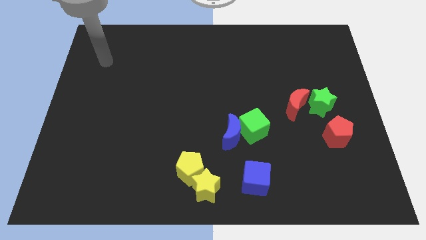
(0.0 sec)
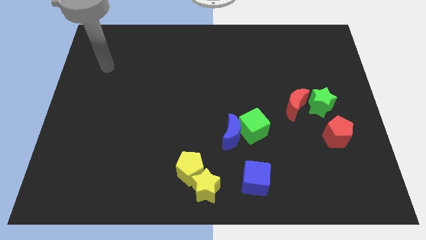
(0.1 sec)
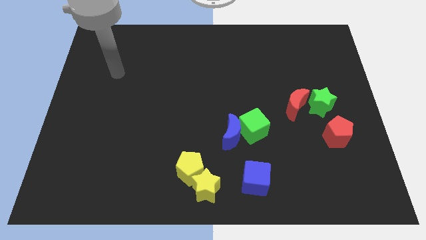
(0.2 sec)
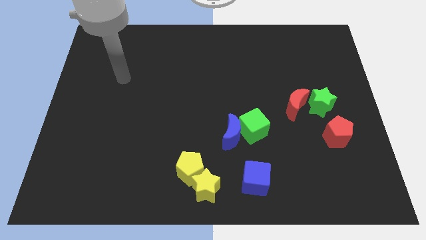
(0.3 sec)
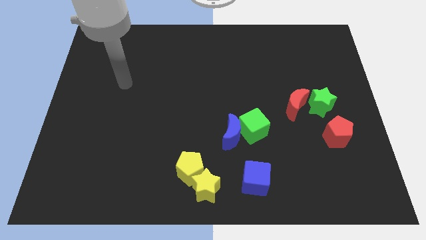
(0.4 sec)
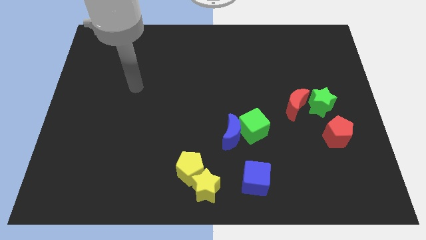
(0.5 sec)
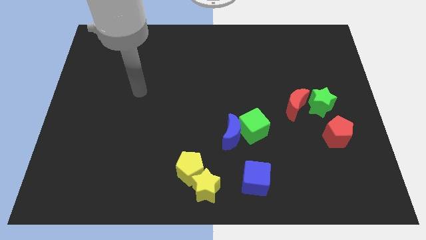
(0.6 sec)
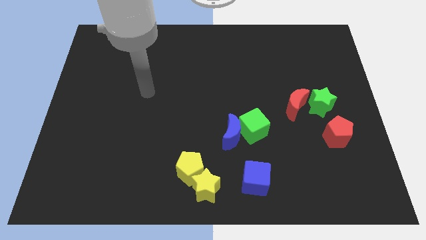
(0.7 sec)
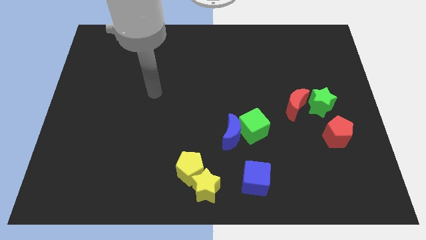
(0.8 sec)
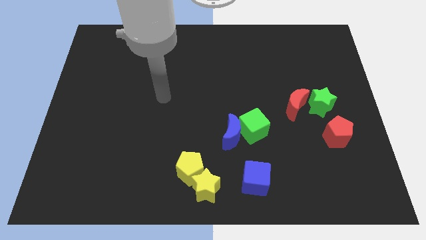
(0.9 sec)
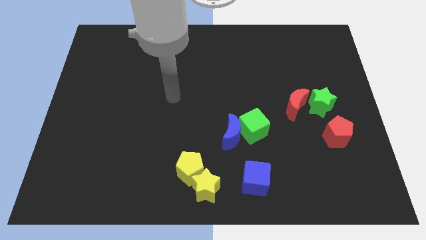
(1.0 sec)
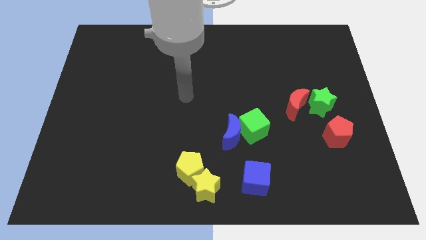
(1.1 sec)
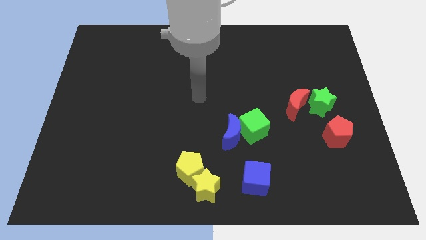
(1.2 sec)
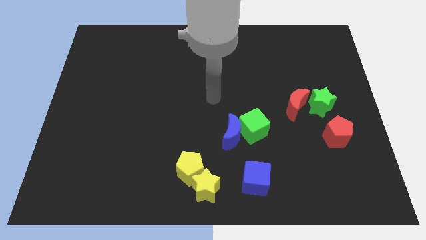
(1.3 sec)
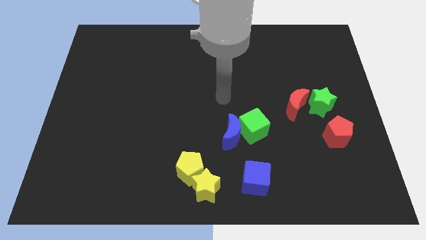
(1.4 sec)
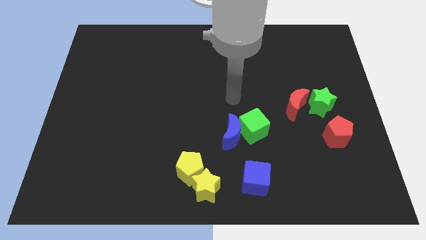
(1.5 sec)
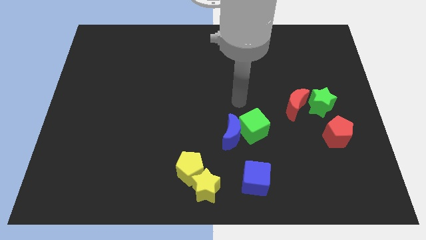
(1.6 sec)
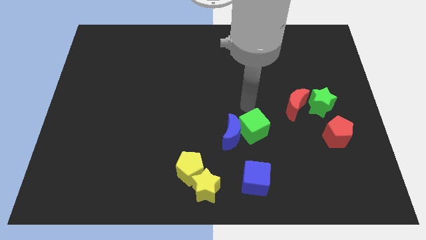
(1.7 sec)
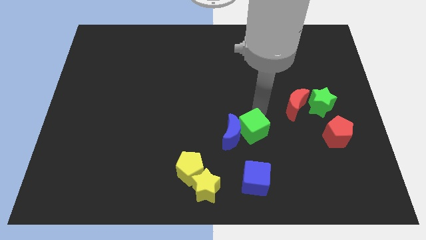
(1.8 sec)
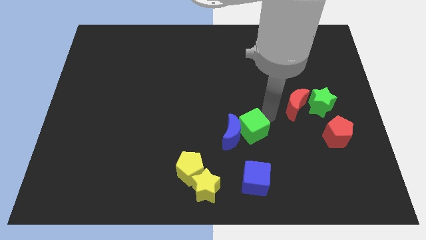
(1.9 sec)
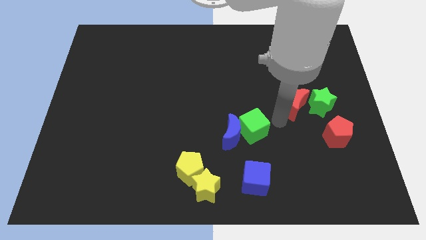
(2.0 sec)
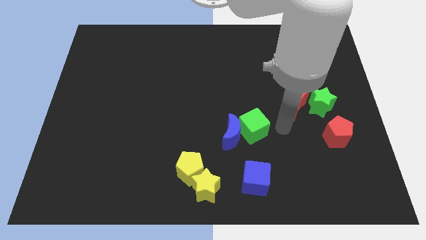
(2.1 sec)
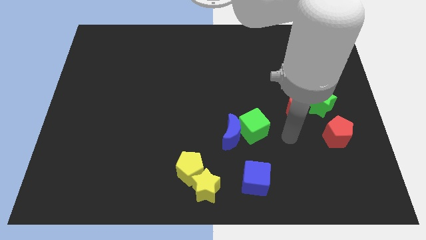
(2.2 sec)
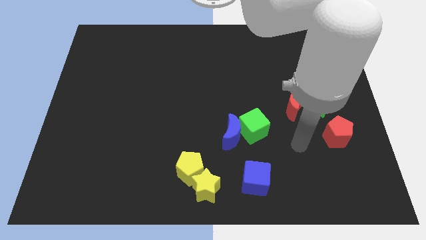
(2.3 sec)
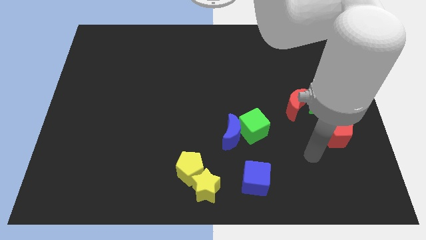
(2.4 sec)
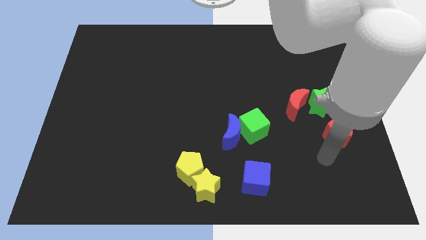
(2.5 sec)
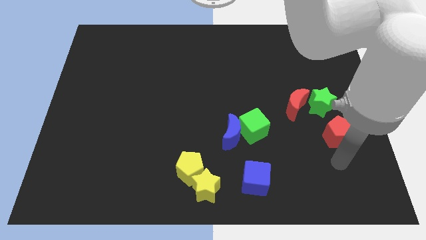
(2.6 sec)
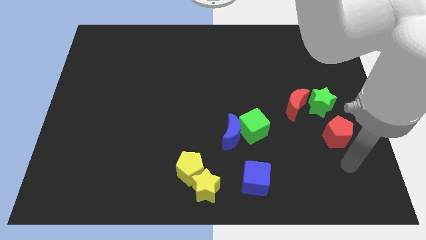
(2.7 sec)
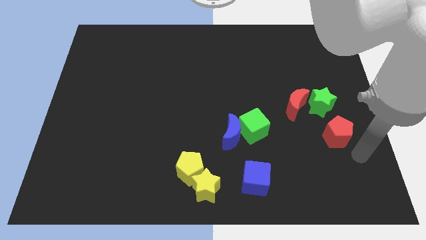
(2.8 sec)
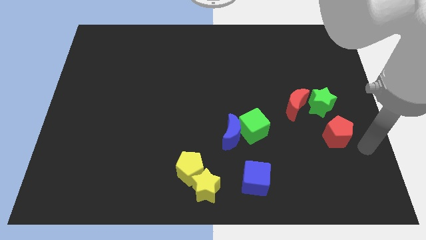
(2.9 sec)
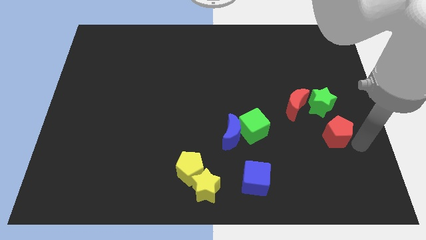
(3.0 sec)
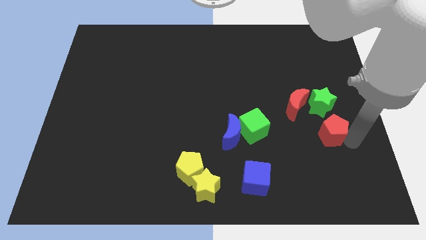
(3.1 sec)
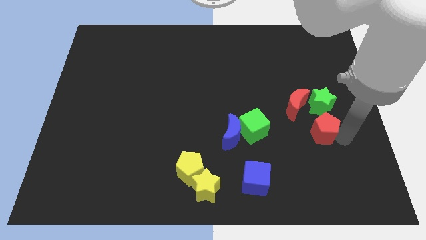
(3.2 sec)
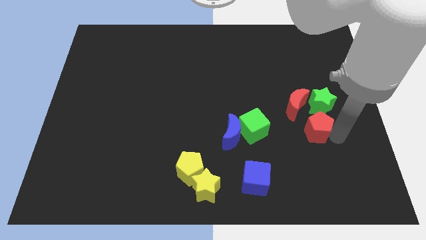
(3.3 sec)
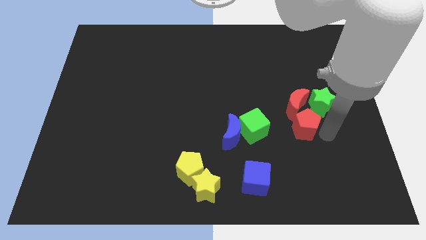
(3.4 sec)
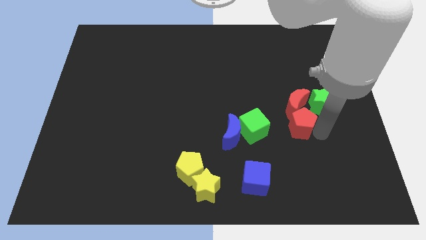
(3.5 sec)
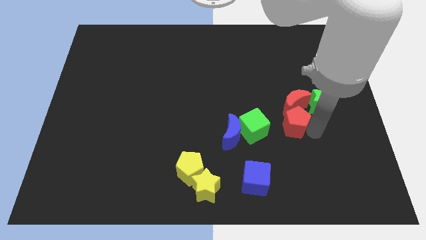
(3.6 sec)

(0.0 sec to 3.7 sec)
move the red pentagon upwards and left a bit

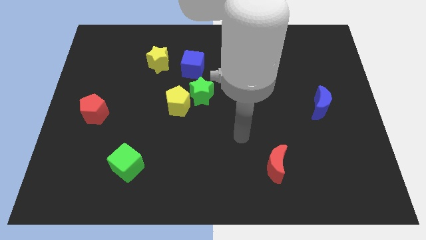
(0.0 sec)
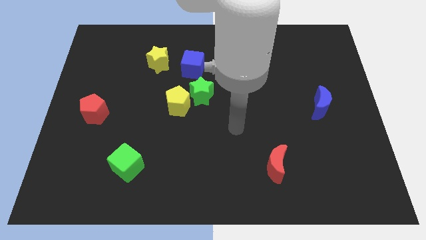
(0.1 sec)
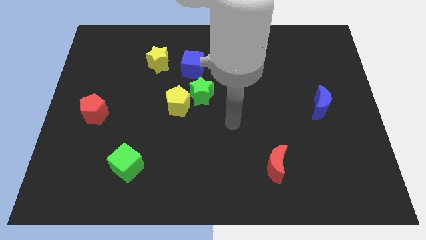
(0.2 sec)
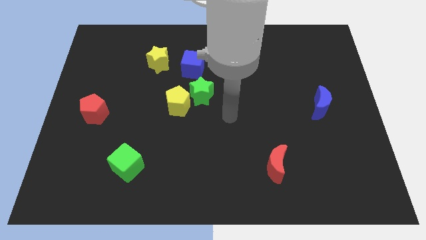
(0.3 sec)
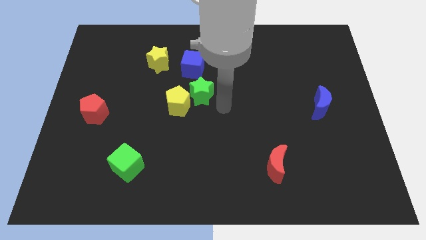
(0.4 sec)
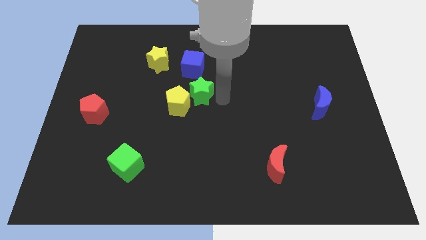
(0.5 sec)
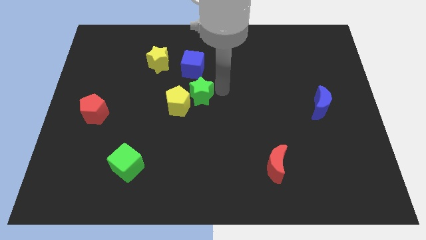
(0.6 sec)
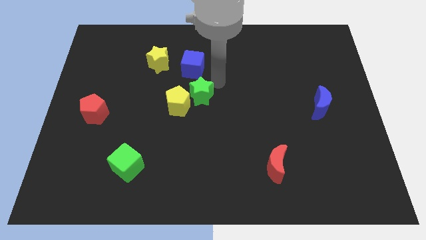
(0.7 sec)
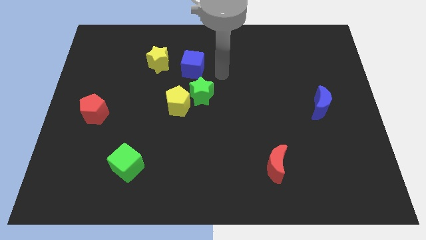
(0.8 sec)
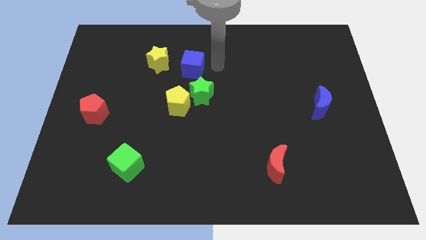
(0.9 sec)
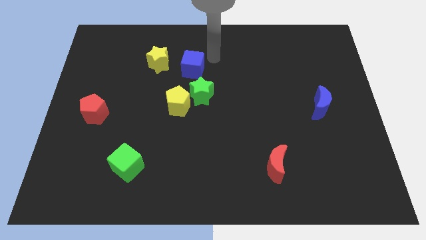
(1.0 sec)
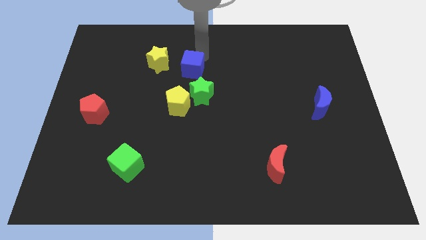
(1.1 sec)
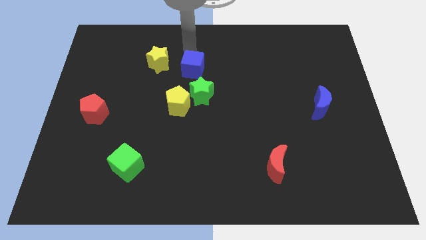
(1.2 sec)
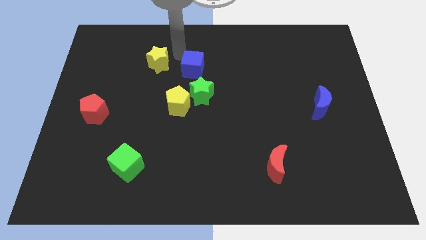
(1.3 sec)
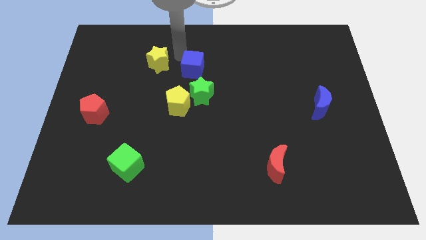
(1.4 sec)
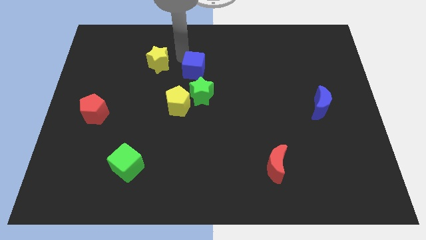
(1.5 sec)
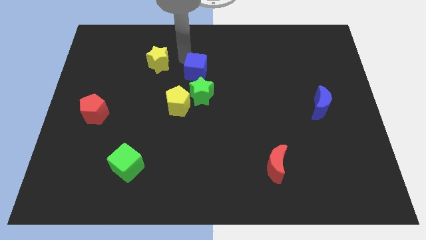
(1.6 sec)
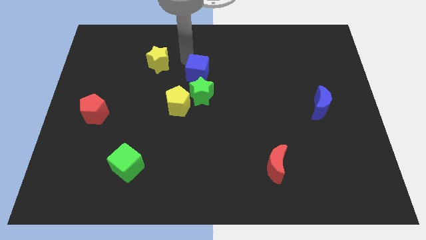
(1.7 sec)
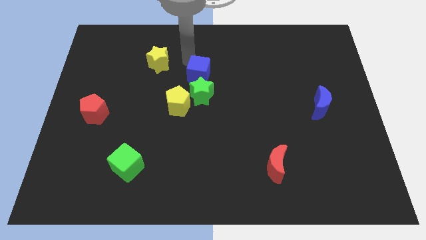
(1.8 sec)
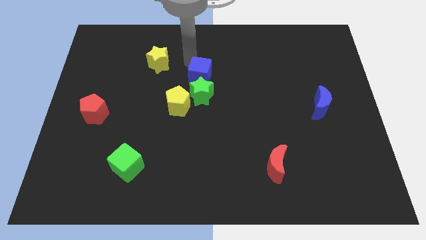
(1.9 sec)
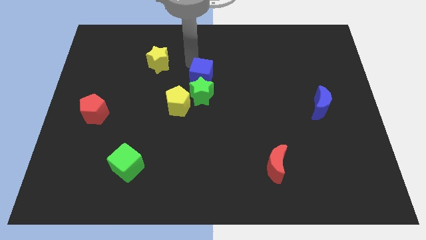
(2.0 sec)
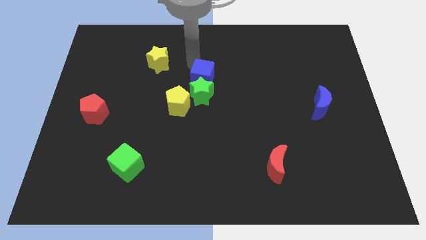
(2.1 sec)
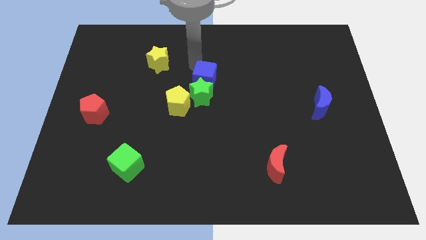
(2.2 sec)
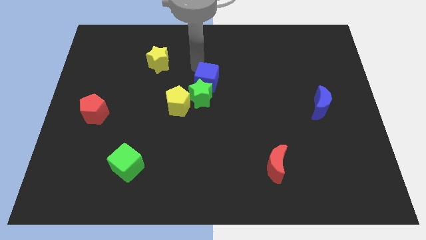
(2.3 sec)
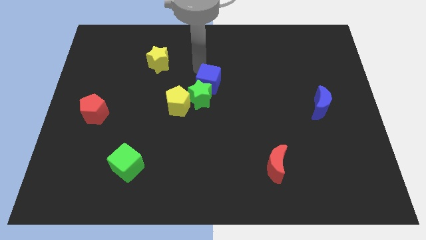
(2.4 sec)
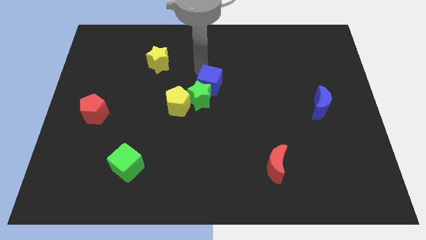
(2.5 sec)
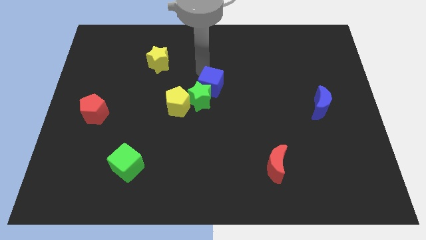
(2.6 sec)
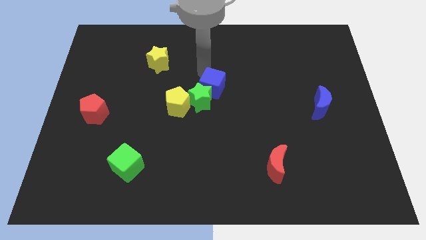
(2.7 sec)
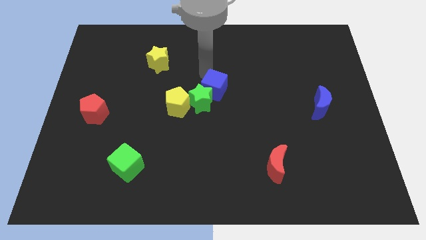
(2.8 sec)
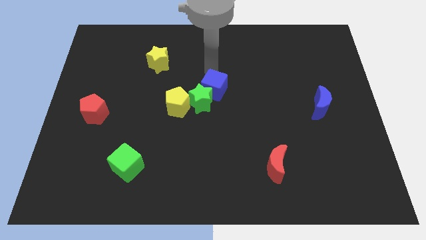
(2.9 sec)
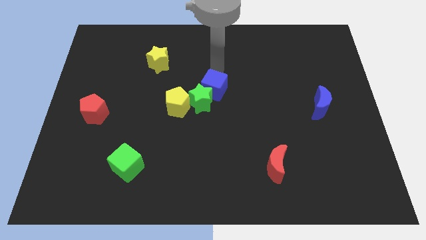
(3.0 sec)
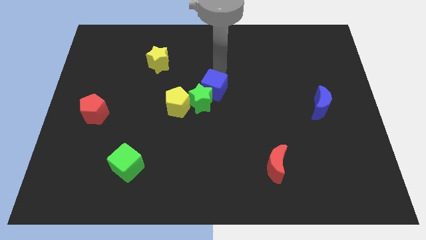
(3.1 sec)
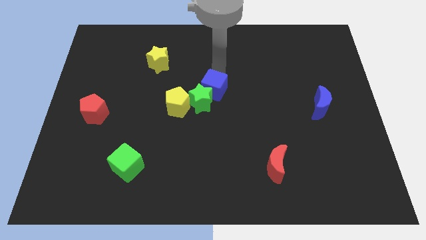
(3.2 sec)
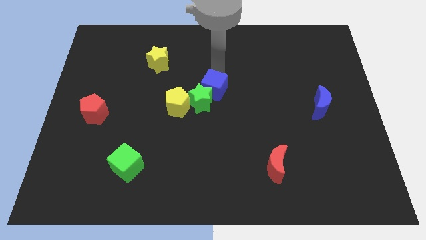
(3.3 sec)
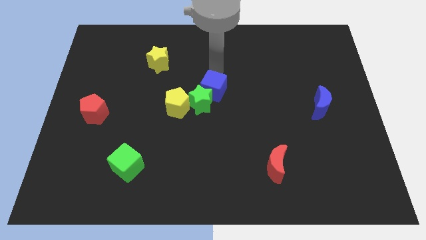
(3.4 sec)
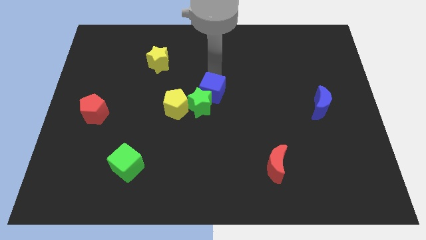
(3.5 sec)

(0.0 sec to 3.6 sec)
push the blue cube downwards somewhat

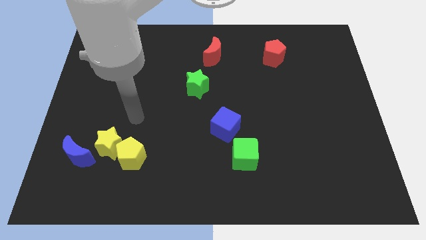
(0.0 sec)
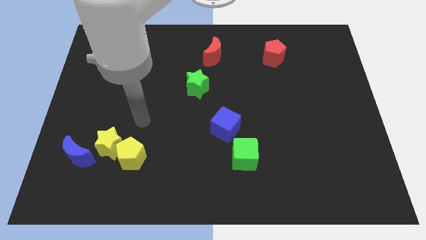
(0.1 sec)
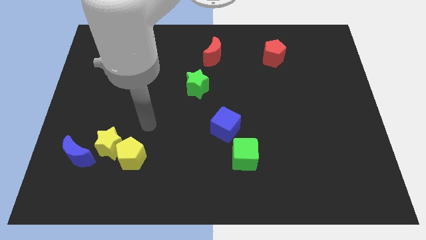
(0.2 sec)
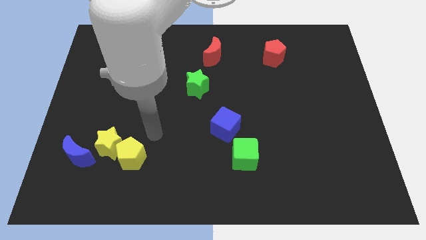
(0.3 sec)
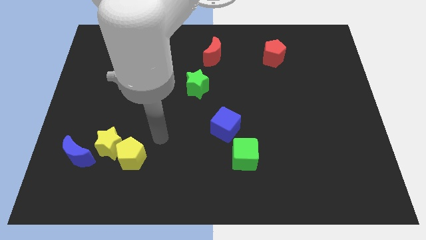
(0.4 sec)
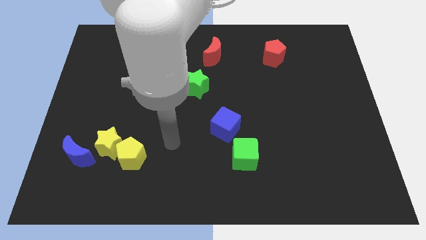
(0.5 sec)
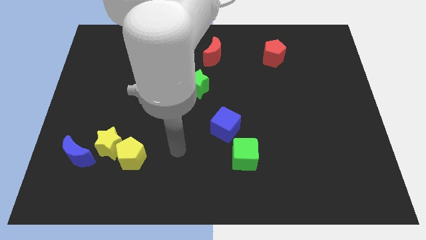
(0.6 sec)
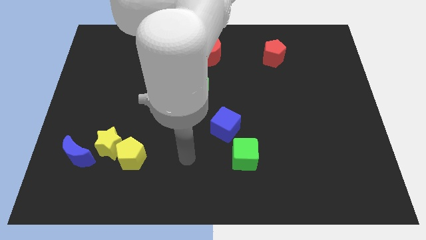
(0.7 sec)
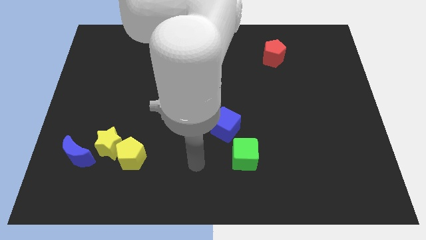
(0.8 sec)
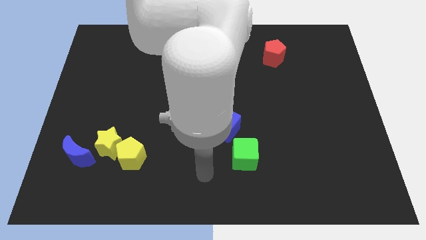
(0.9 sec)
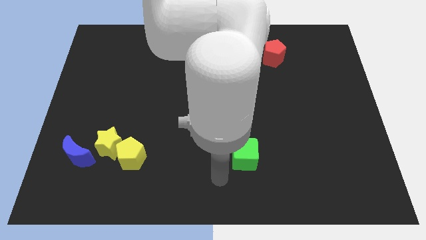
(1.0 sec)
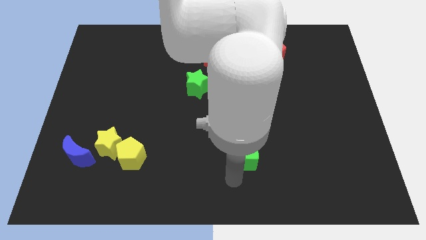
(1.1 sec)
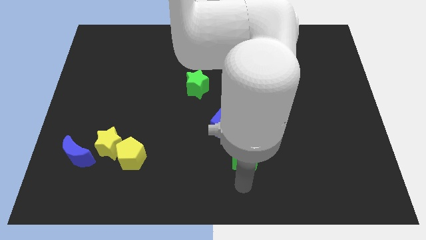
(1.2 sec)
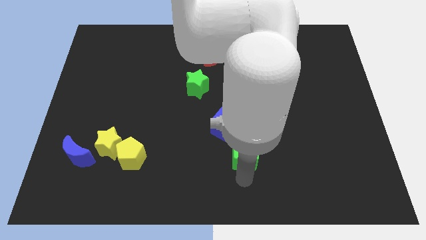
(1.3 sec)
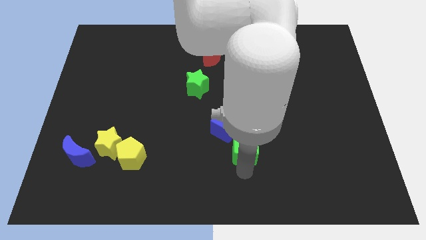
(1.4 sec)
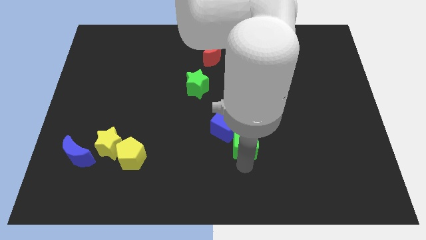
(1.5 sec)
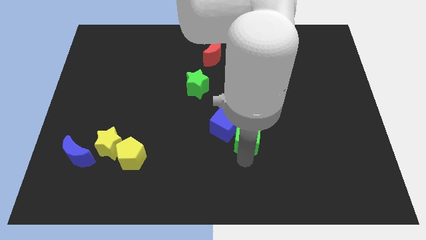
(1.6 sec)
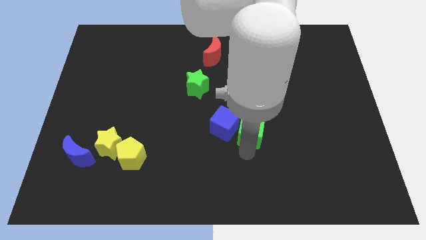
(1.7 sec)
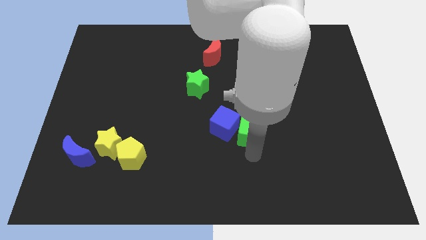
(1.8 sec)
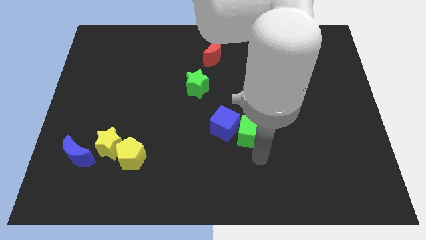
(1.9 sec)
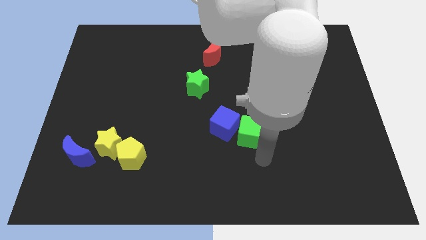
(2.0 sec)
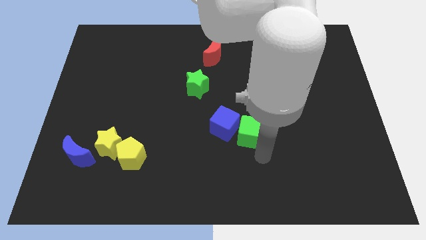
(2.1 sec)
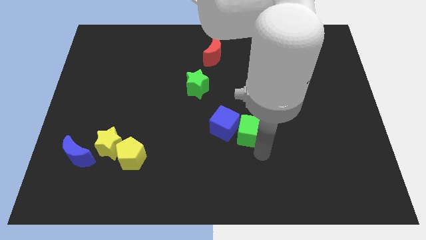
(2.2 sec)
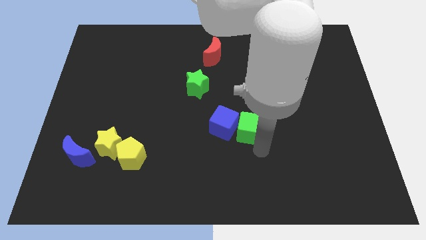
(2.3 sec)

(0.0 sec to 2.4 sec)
slightly push the green cube upwards
